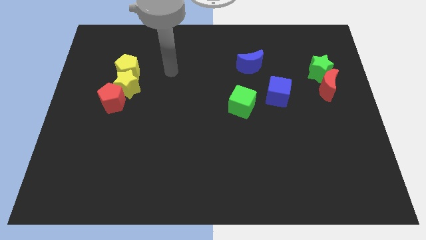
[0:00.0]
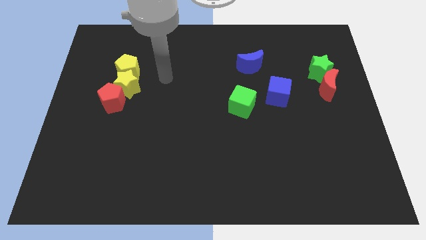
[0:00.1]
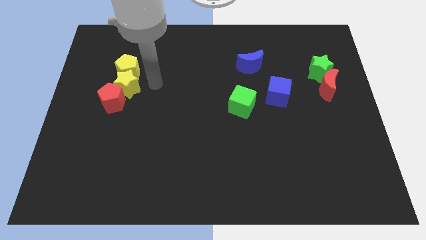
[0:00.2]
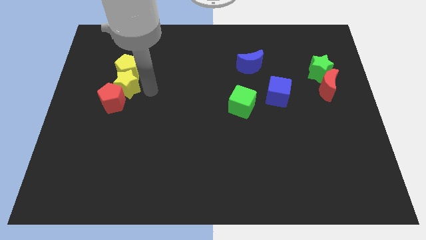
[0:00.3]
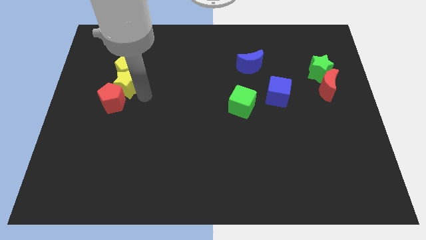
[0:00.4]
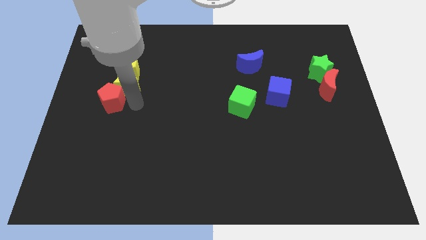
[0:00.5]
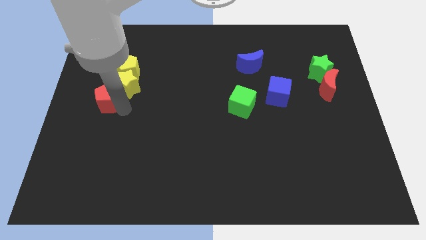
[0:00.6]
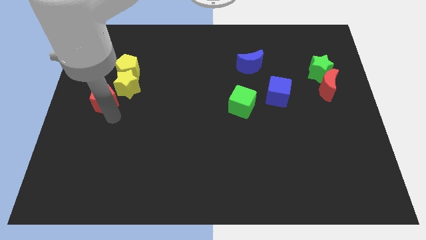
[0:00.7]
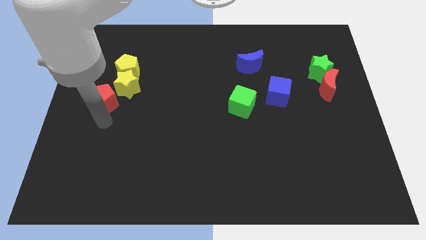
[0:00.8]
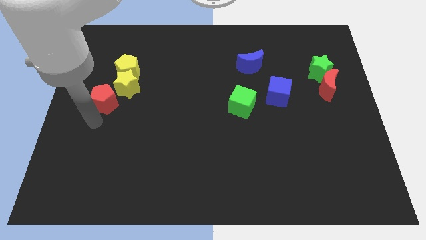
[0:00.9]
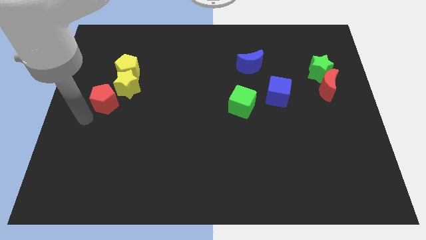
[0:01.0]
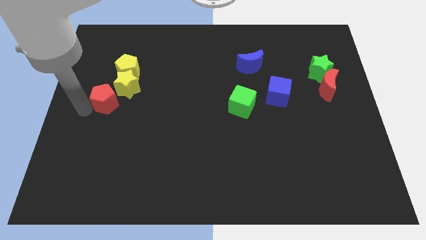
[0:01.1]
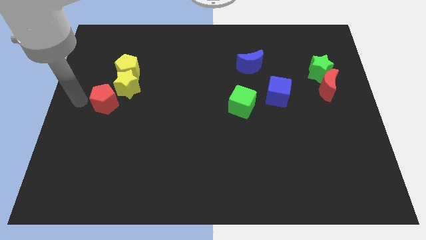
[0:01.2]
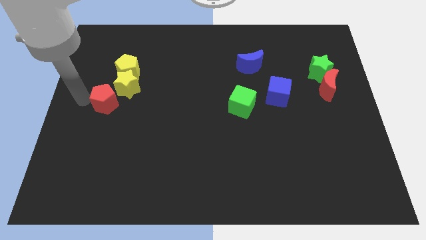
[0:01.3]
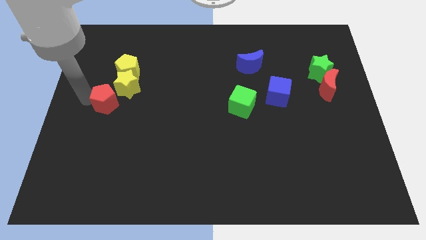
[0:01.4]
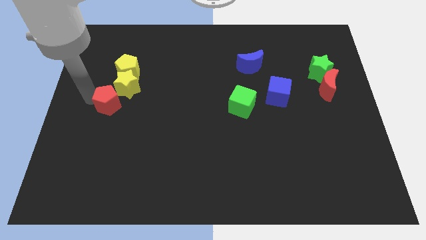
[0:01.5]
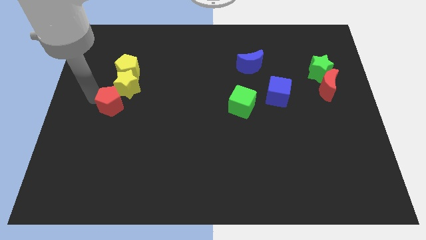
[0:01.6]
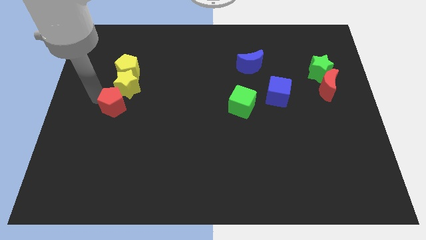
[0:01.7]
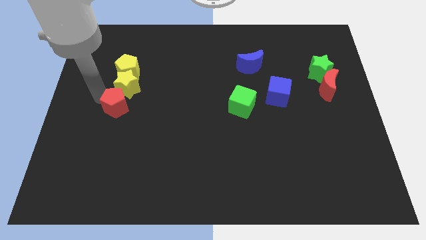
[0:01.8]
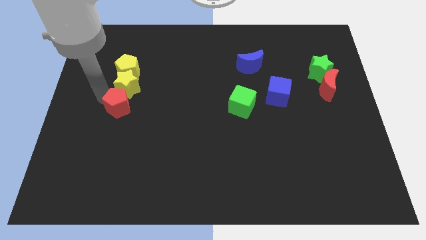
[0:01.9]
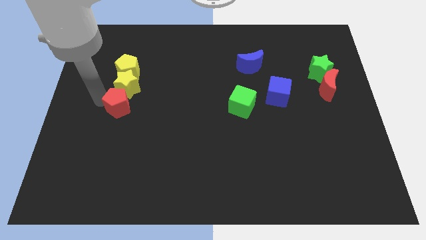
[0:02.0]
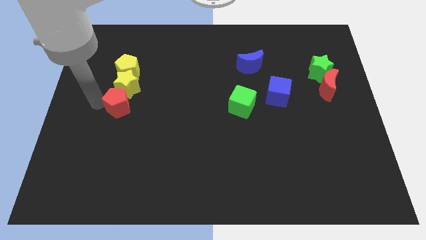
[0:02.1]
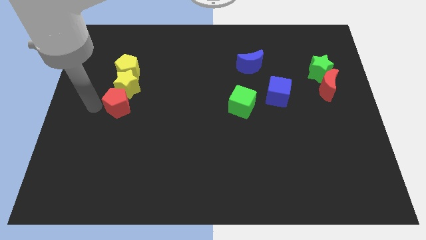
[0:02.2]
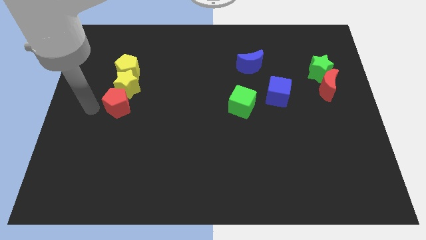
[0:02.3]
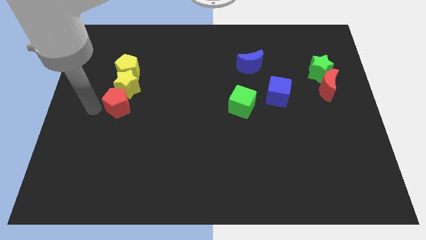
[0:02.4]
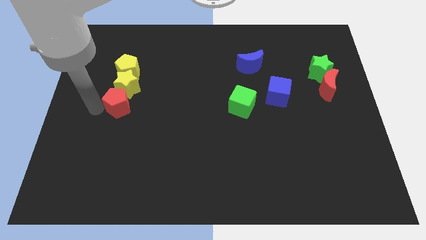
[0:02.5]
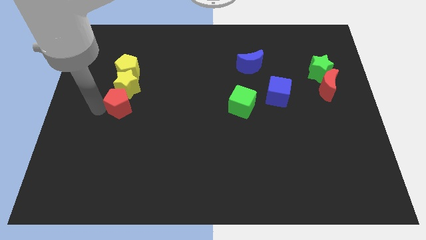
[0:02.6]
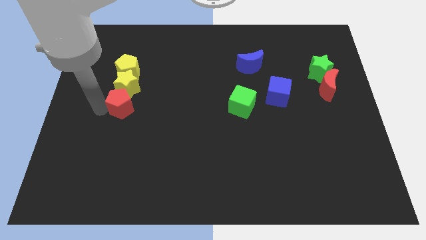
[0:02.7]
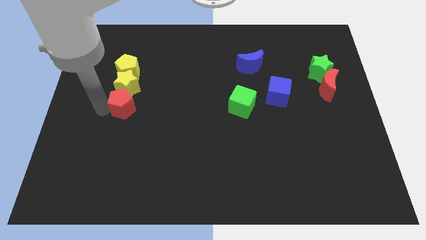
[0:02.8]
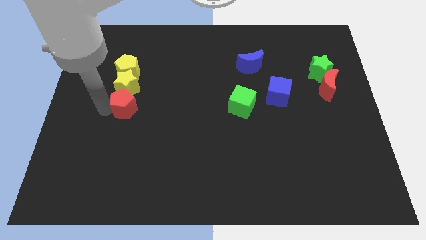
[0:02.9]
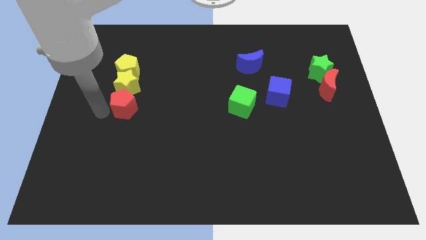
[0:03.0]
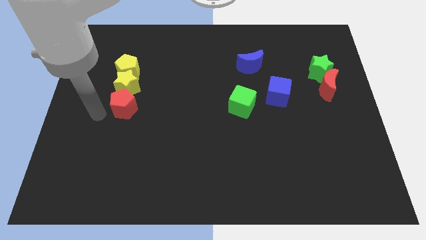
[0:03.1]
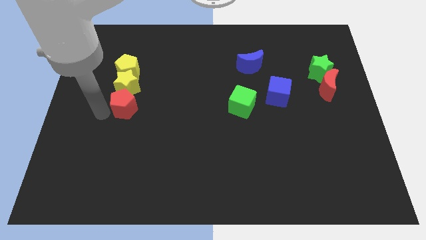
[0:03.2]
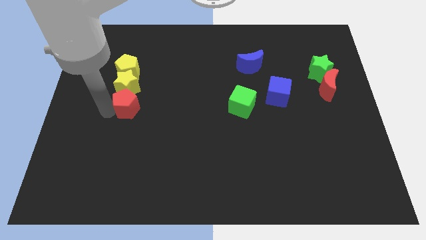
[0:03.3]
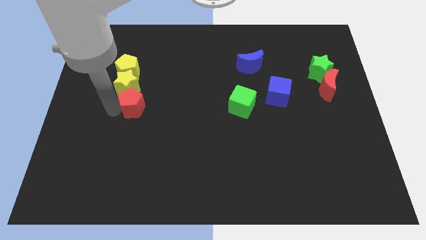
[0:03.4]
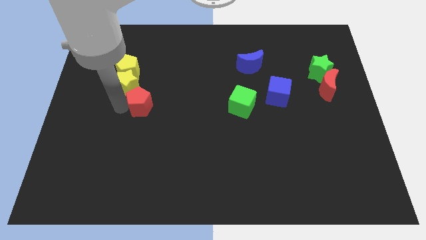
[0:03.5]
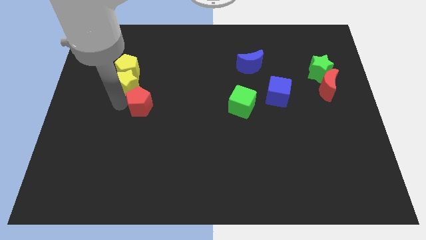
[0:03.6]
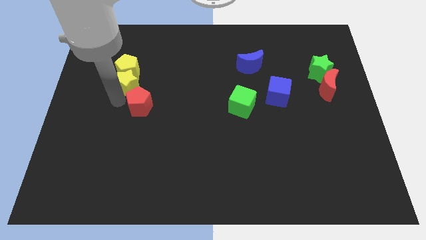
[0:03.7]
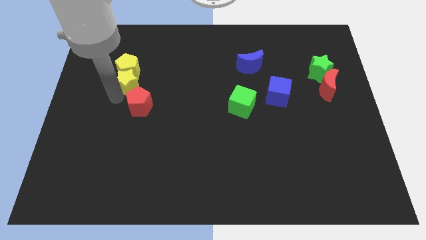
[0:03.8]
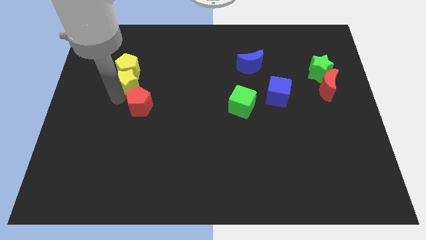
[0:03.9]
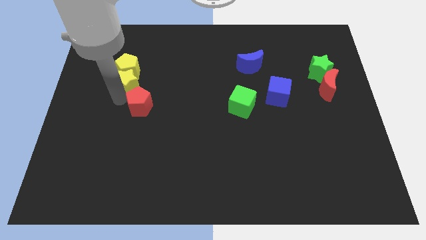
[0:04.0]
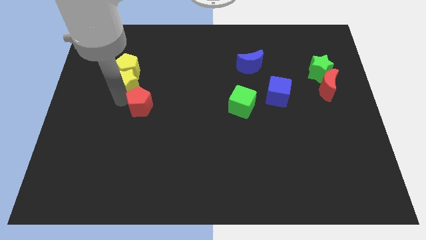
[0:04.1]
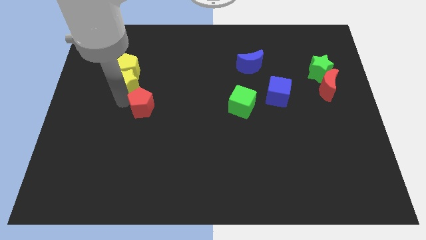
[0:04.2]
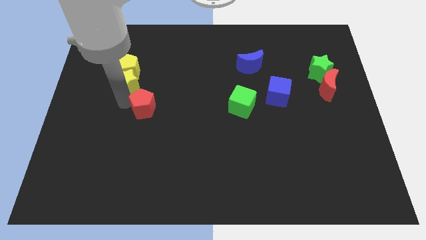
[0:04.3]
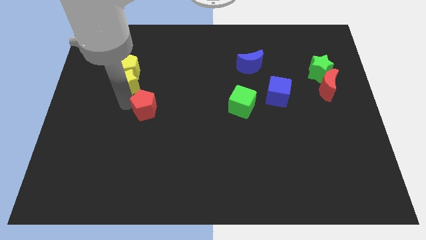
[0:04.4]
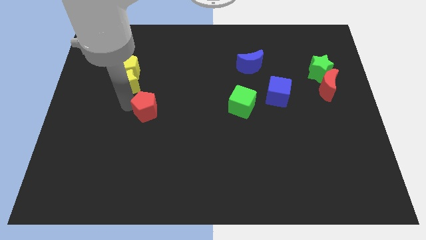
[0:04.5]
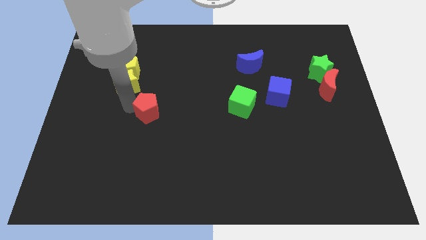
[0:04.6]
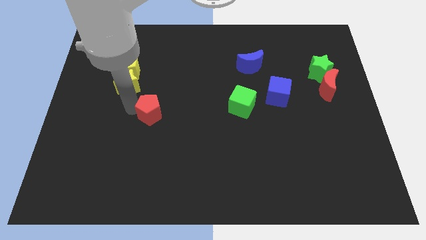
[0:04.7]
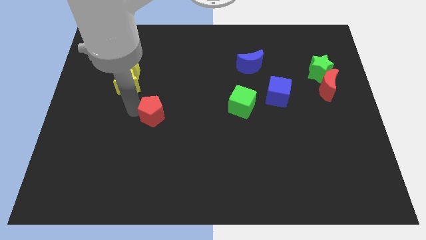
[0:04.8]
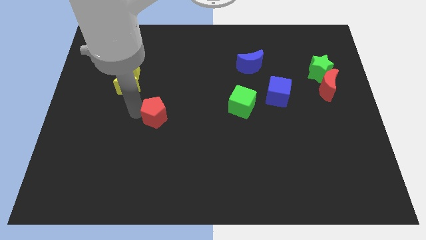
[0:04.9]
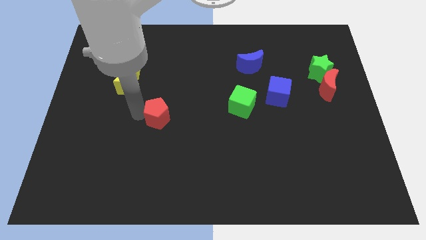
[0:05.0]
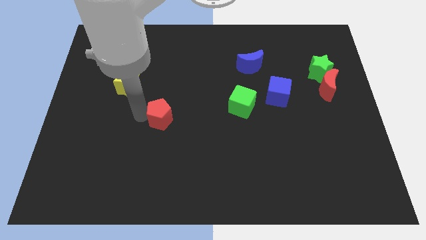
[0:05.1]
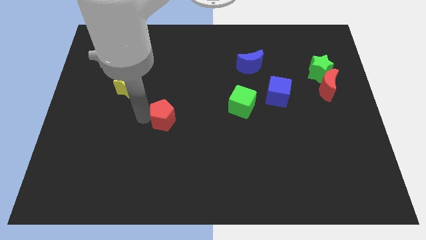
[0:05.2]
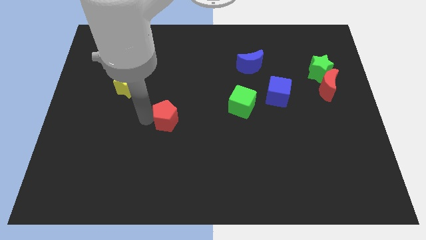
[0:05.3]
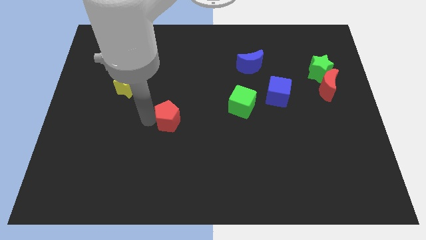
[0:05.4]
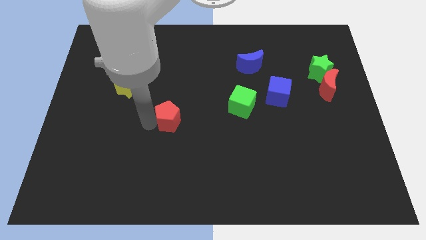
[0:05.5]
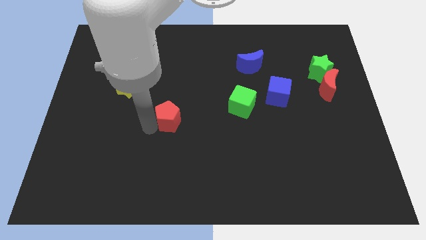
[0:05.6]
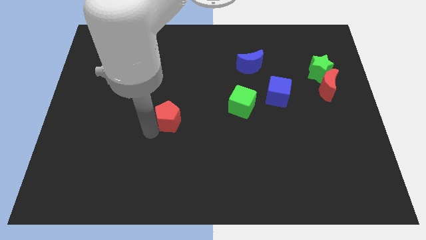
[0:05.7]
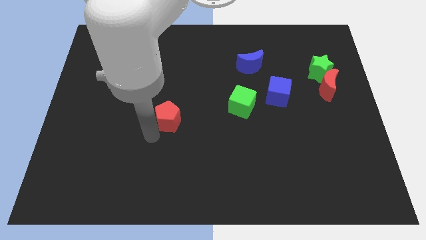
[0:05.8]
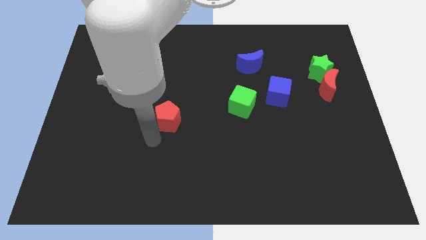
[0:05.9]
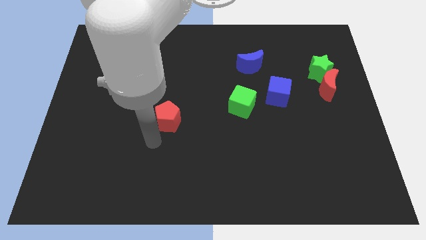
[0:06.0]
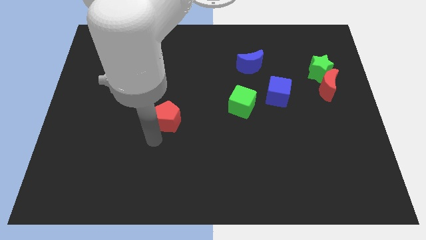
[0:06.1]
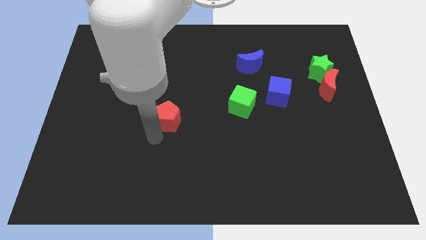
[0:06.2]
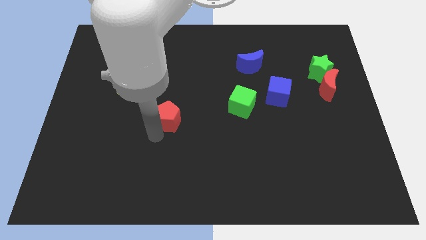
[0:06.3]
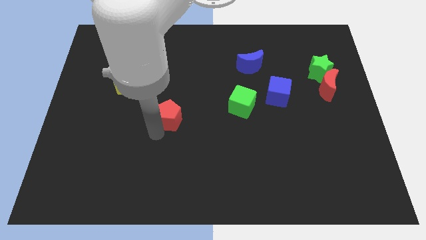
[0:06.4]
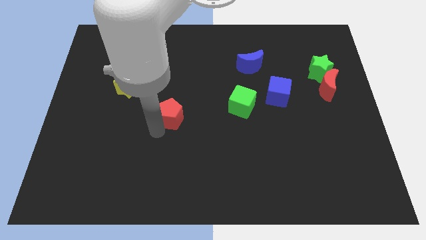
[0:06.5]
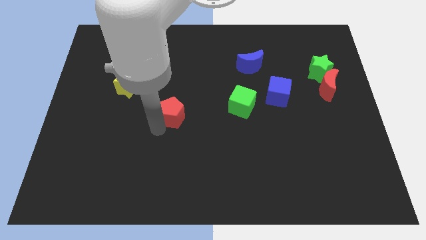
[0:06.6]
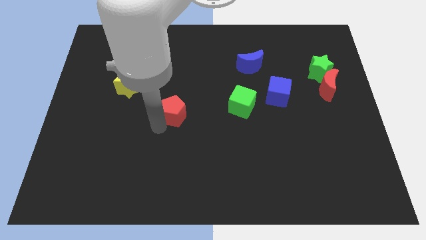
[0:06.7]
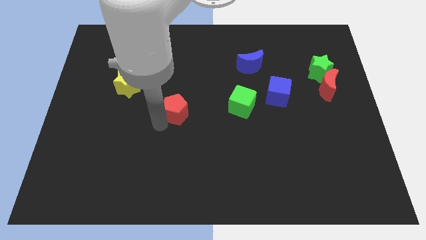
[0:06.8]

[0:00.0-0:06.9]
push the red pentagon left of the green cube
